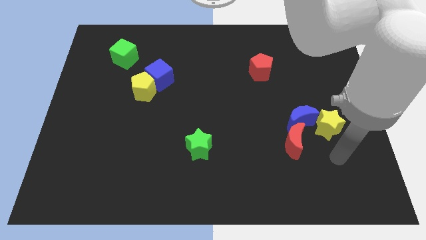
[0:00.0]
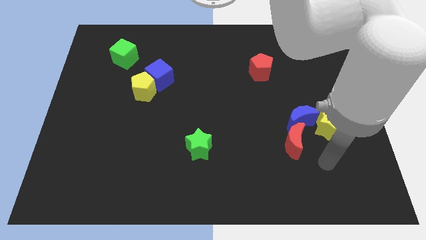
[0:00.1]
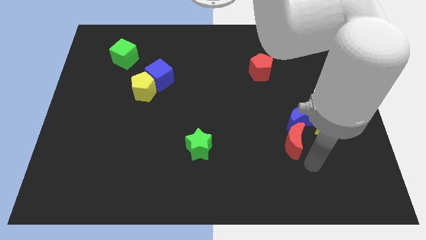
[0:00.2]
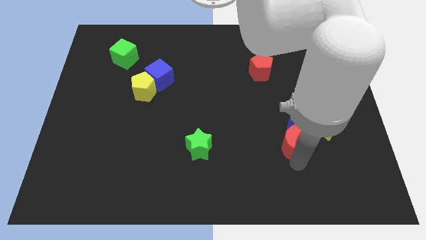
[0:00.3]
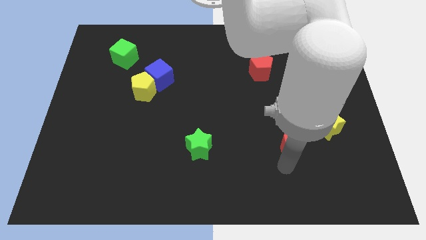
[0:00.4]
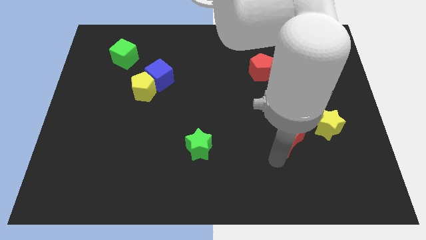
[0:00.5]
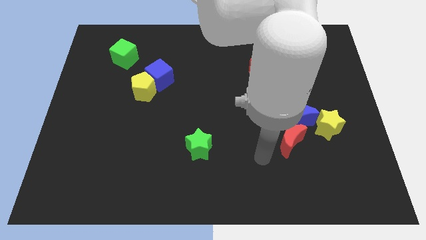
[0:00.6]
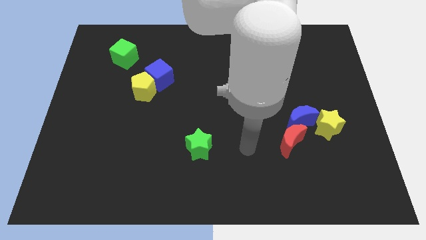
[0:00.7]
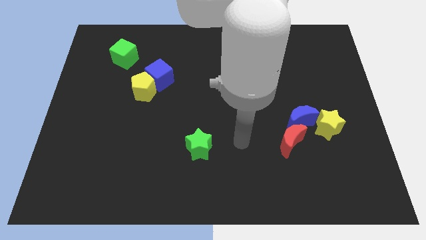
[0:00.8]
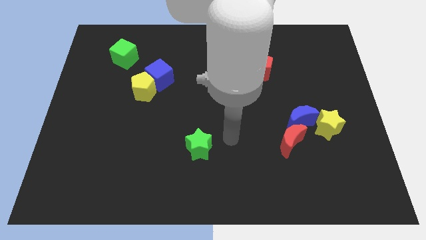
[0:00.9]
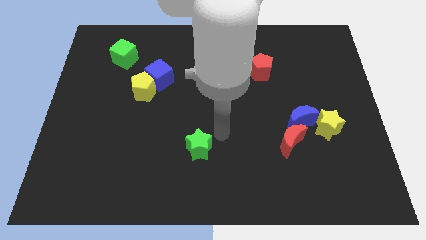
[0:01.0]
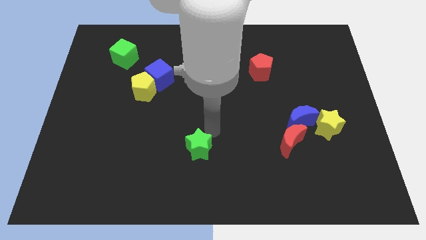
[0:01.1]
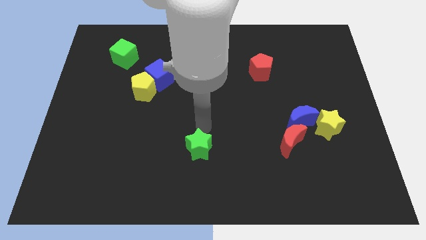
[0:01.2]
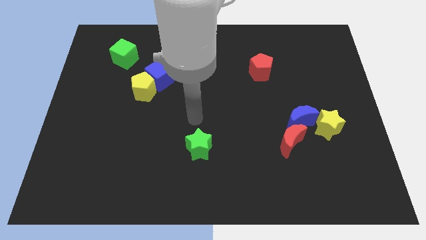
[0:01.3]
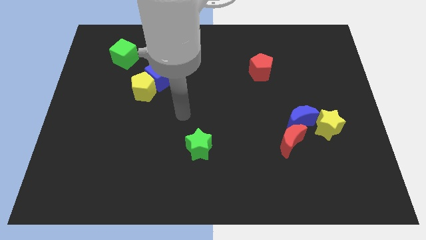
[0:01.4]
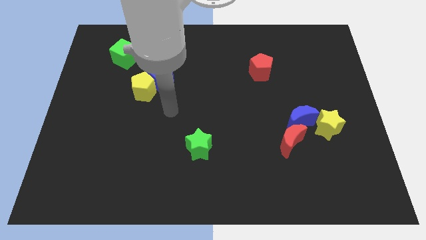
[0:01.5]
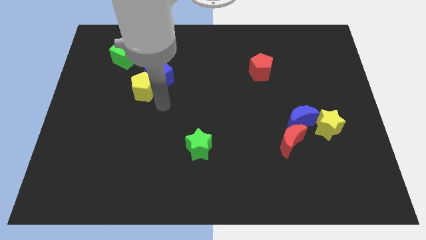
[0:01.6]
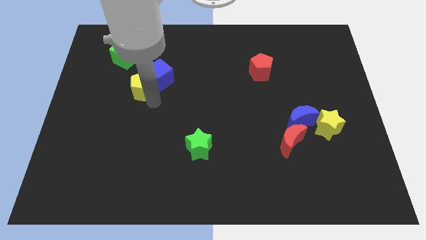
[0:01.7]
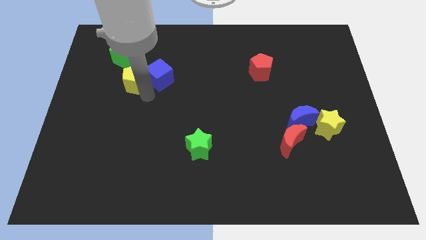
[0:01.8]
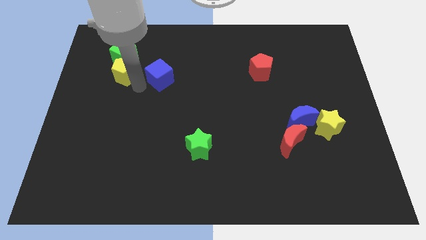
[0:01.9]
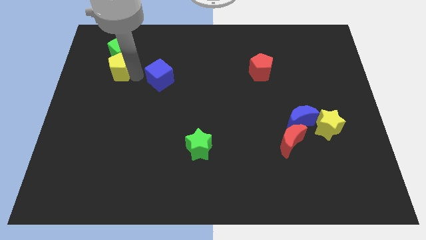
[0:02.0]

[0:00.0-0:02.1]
move the blue cube away from the yellow pentagon

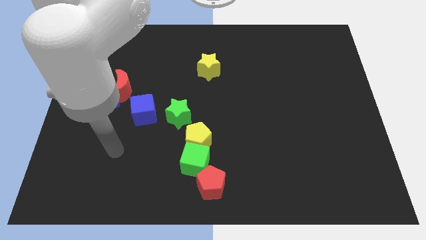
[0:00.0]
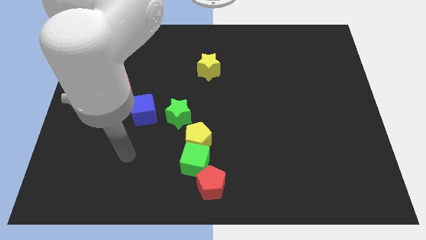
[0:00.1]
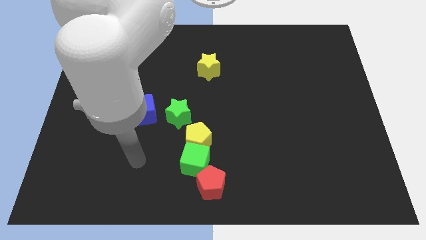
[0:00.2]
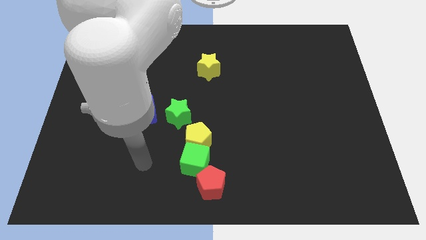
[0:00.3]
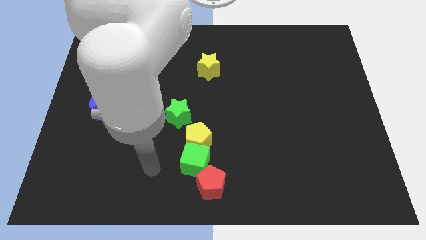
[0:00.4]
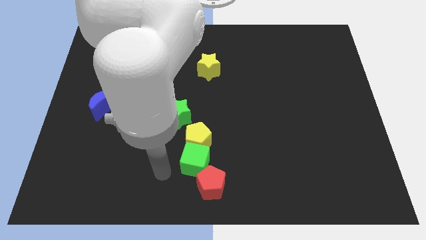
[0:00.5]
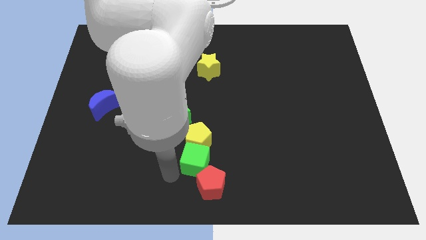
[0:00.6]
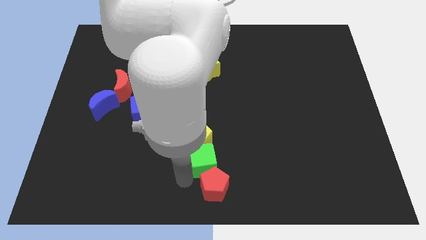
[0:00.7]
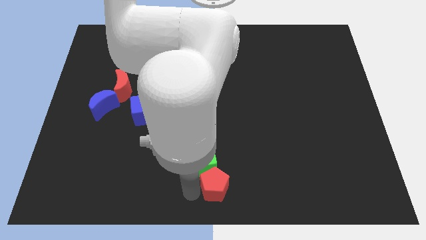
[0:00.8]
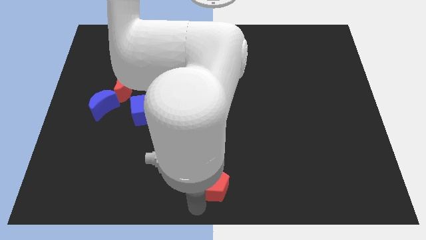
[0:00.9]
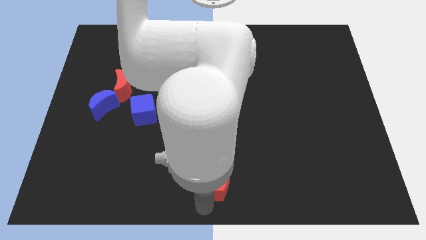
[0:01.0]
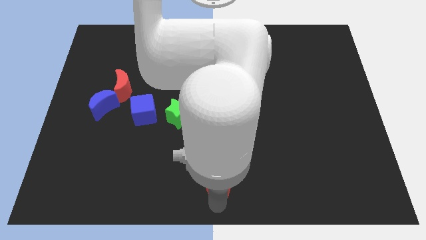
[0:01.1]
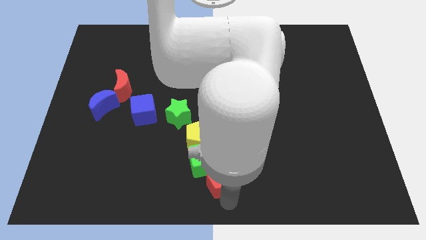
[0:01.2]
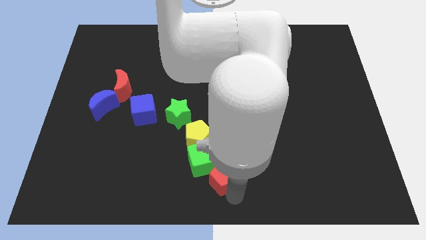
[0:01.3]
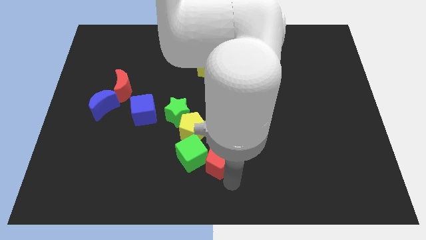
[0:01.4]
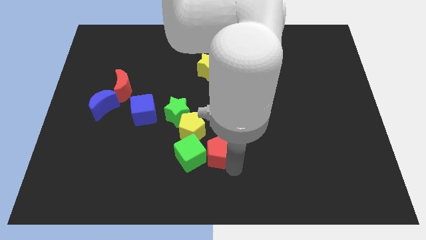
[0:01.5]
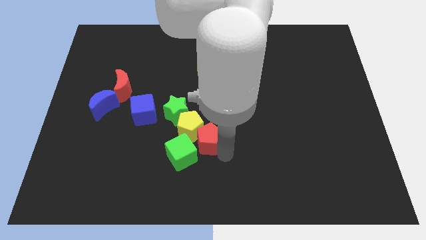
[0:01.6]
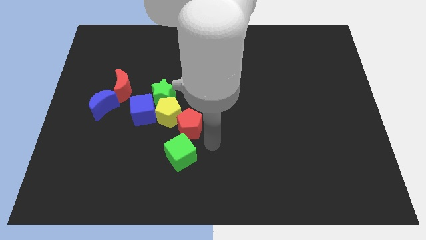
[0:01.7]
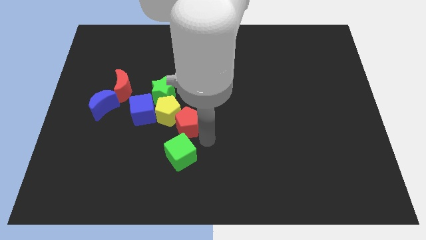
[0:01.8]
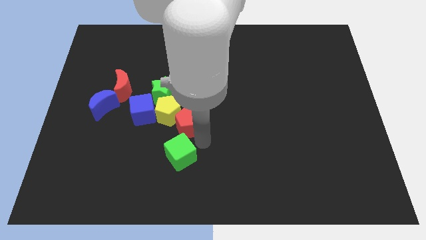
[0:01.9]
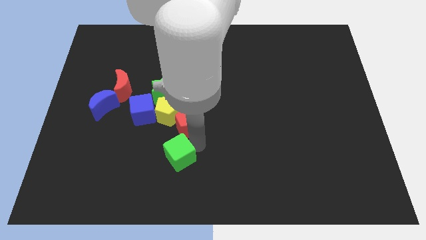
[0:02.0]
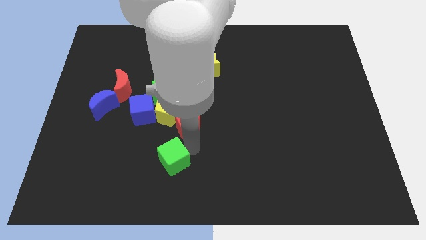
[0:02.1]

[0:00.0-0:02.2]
move the green cube away from the yellow pentagon and red pentagon

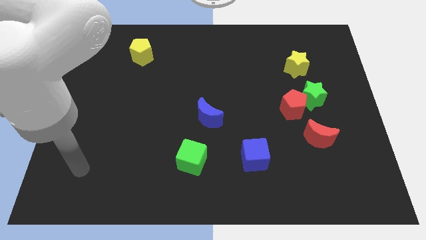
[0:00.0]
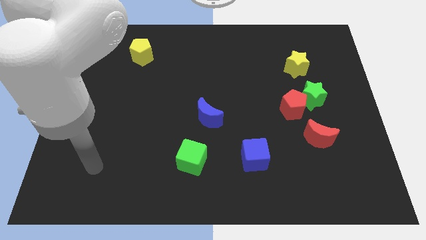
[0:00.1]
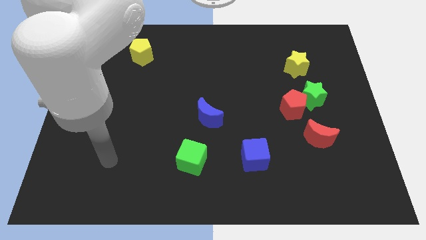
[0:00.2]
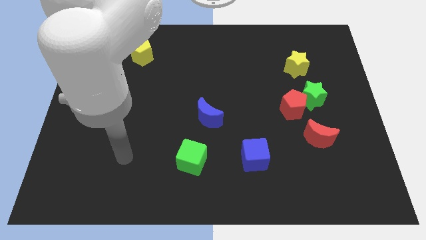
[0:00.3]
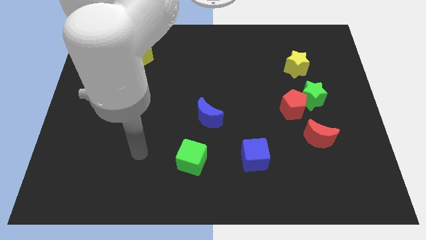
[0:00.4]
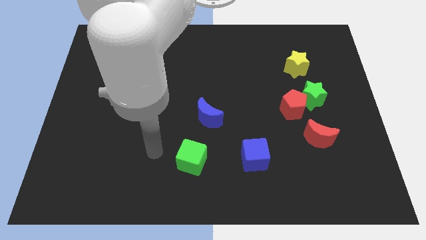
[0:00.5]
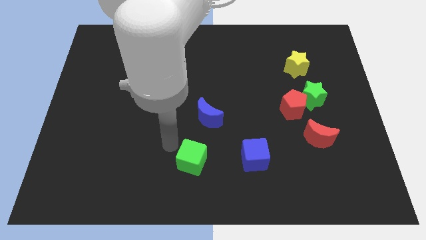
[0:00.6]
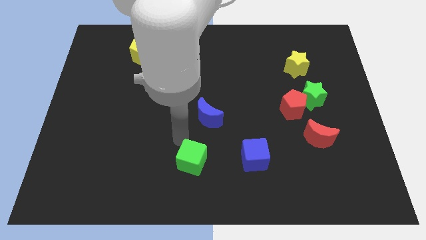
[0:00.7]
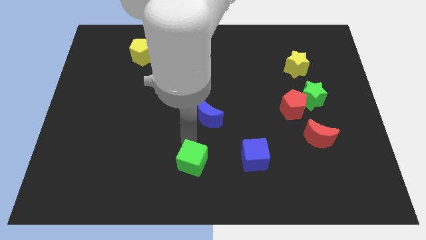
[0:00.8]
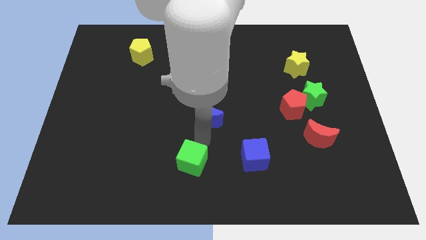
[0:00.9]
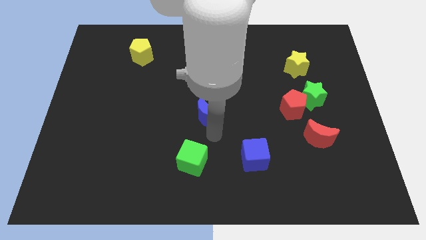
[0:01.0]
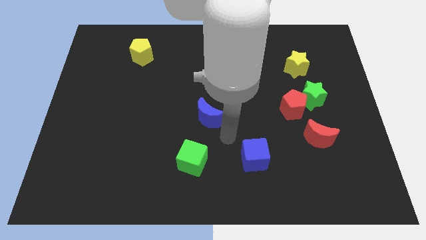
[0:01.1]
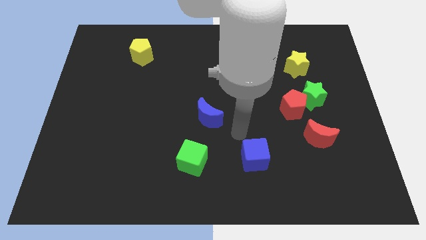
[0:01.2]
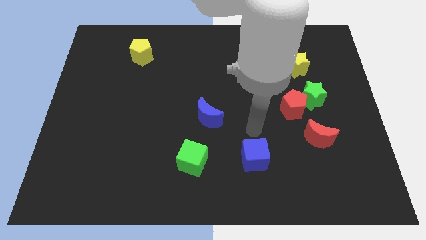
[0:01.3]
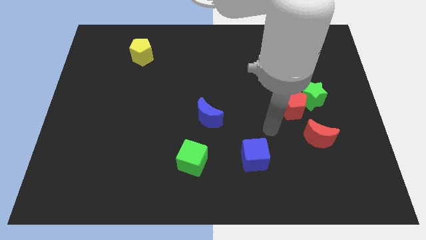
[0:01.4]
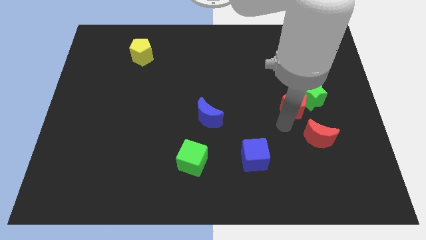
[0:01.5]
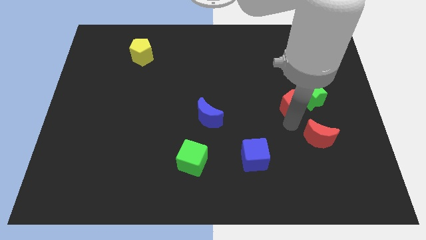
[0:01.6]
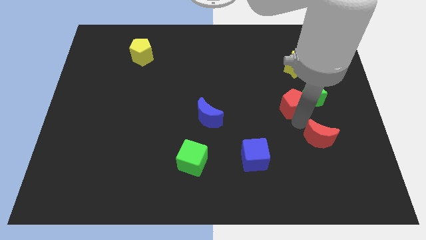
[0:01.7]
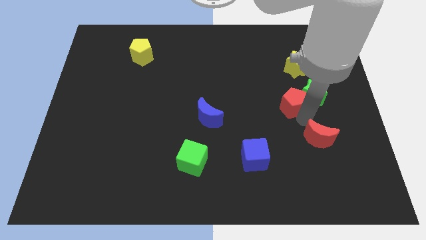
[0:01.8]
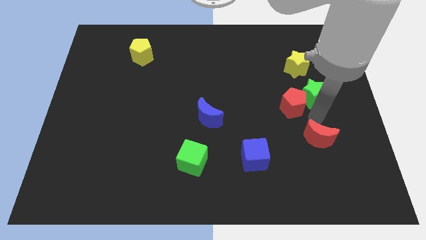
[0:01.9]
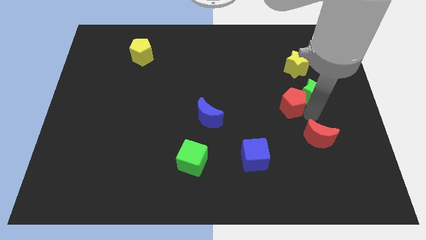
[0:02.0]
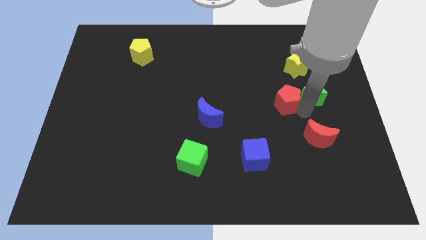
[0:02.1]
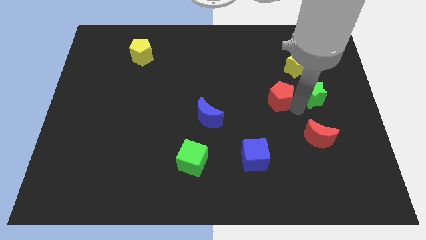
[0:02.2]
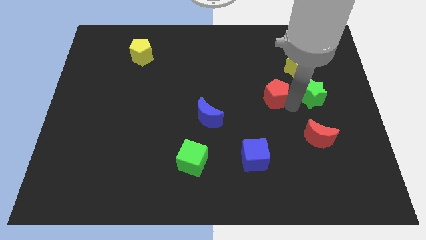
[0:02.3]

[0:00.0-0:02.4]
pull the red pentagon apart from the green star and red moon

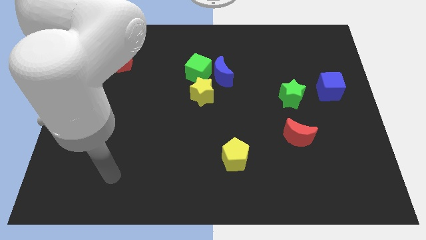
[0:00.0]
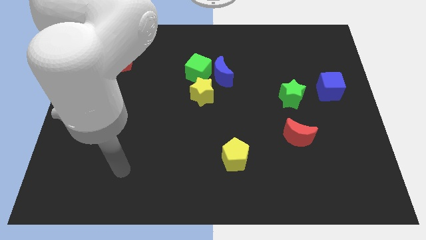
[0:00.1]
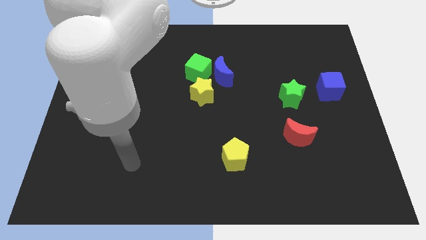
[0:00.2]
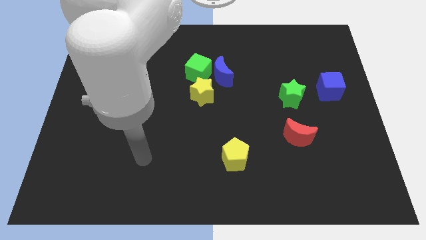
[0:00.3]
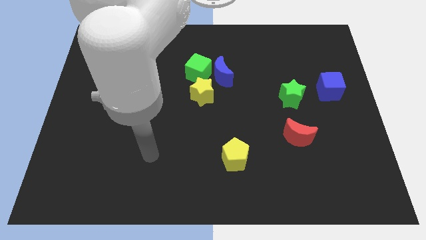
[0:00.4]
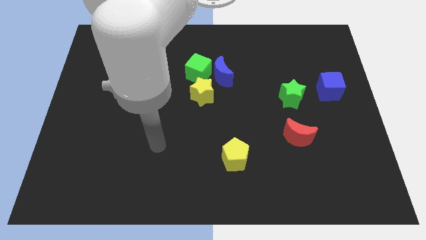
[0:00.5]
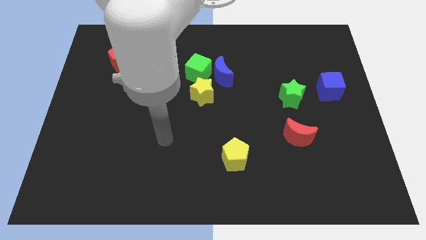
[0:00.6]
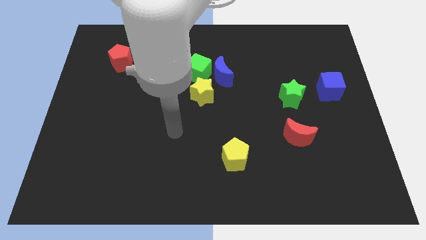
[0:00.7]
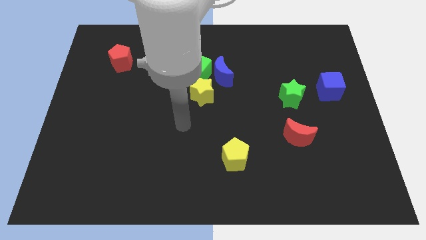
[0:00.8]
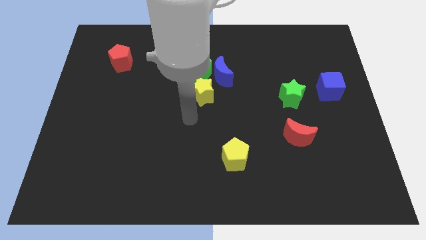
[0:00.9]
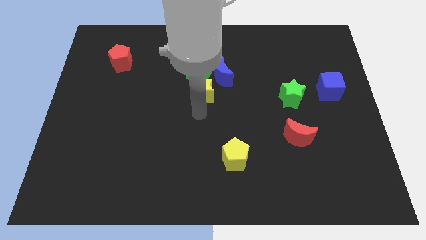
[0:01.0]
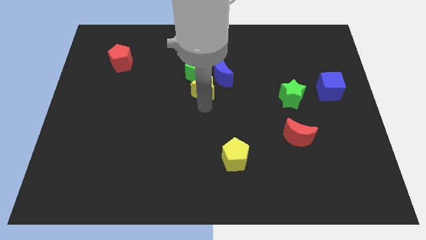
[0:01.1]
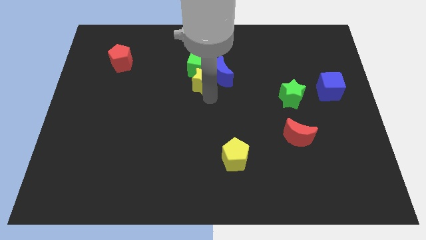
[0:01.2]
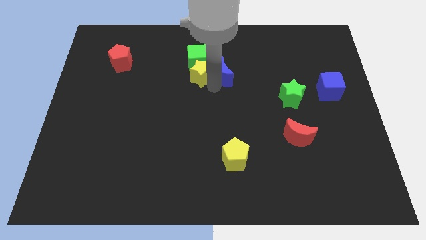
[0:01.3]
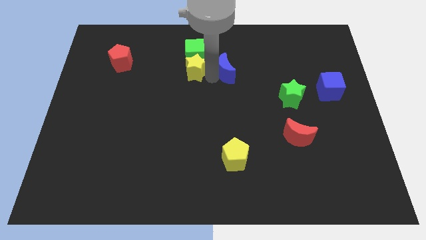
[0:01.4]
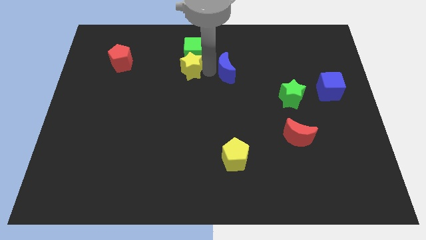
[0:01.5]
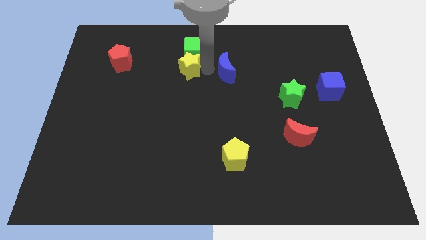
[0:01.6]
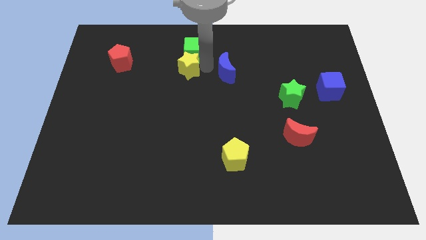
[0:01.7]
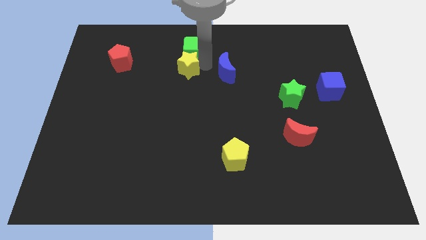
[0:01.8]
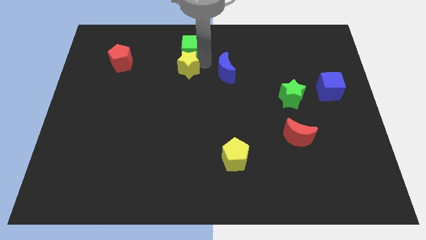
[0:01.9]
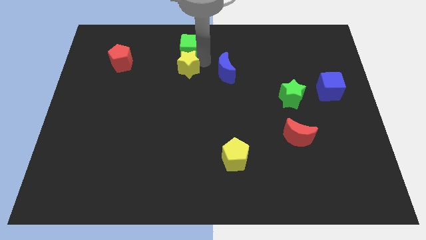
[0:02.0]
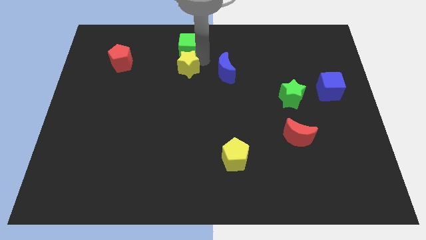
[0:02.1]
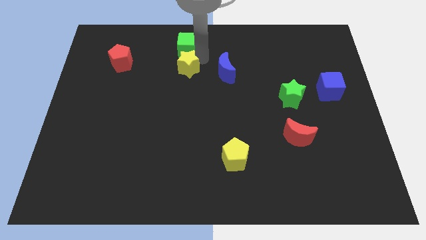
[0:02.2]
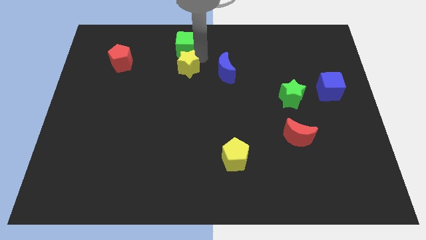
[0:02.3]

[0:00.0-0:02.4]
pull the green cube apart from the blue moon and yellow star

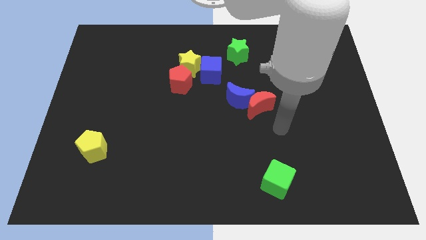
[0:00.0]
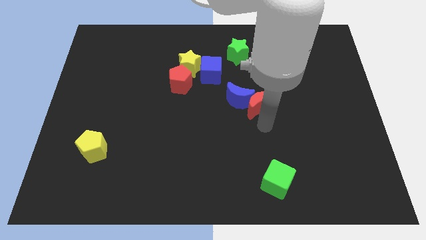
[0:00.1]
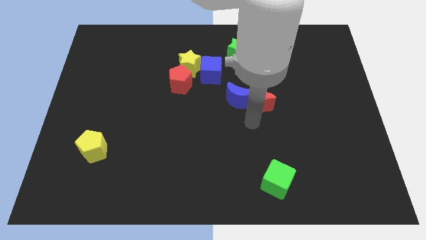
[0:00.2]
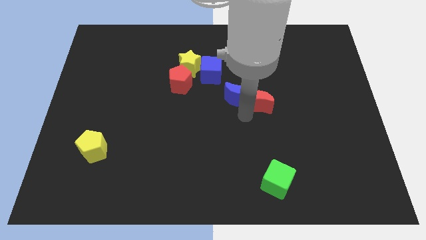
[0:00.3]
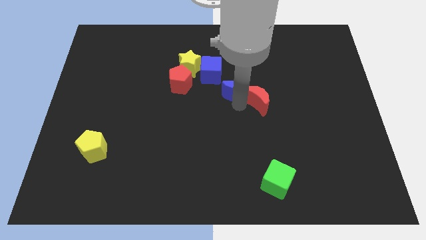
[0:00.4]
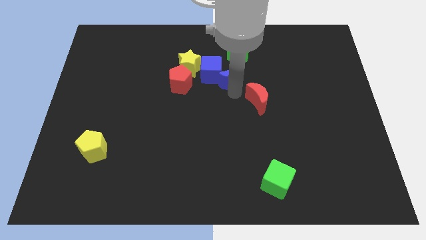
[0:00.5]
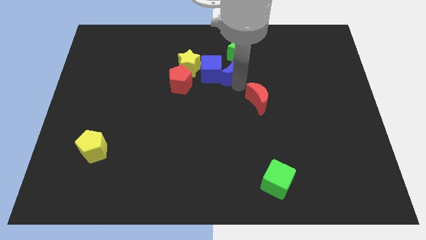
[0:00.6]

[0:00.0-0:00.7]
separate the red moon from the blue moon
